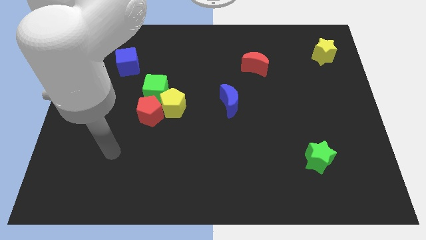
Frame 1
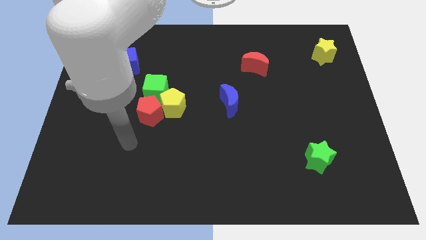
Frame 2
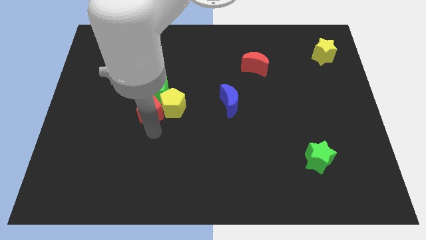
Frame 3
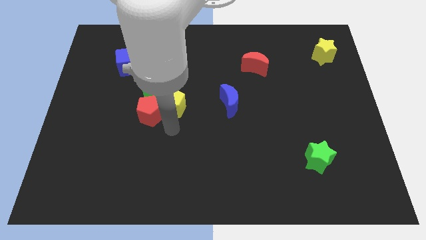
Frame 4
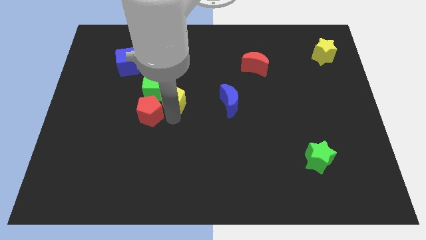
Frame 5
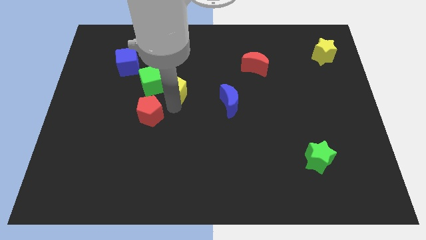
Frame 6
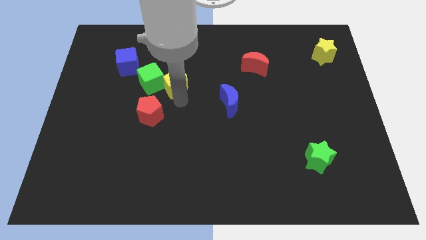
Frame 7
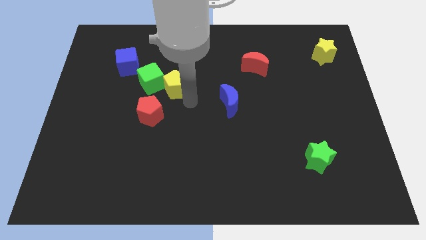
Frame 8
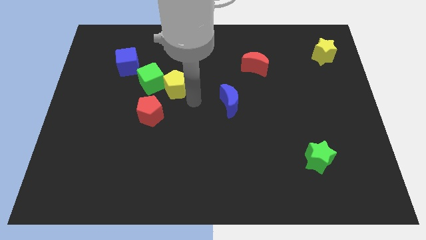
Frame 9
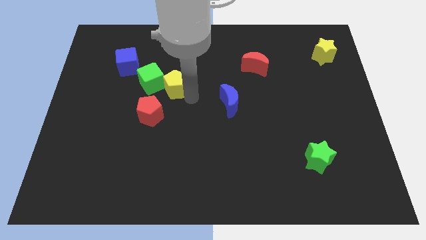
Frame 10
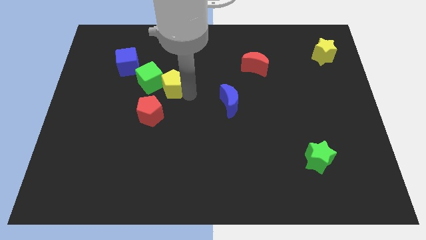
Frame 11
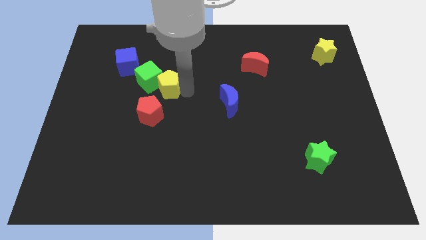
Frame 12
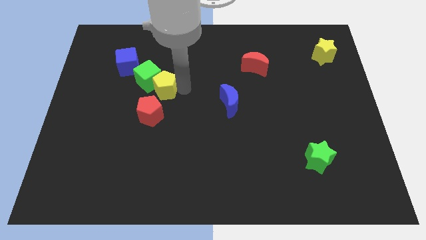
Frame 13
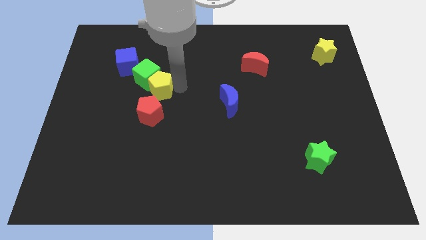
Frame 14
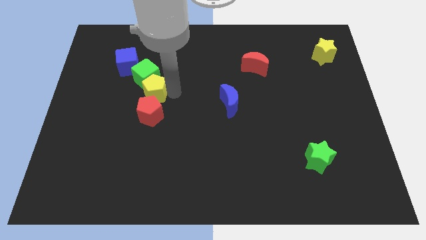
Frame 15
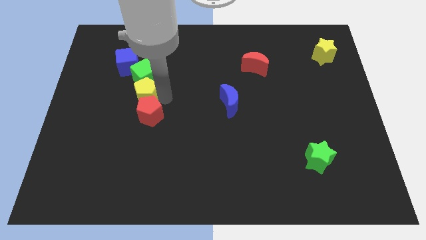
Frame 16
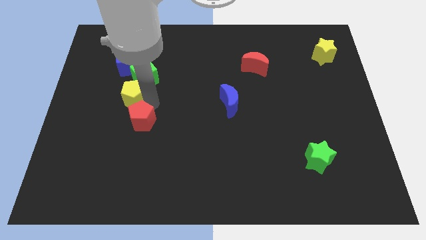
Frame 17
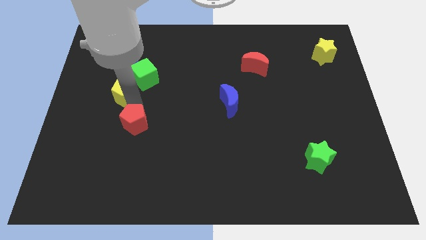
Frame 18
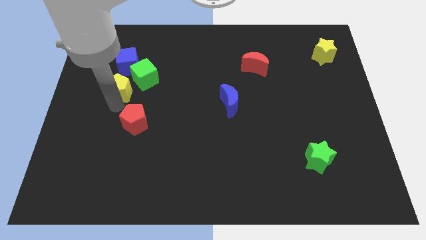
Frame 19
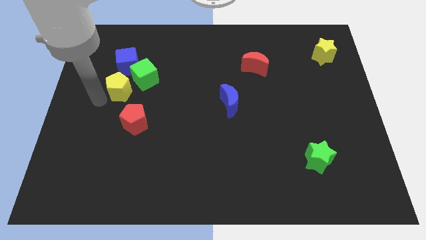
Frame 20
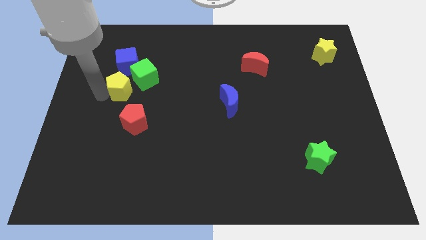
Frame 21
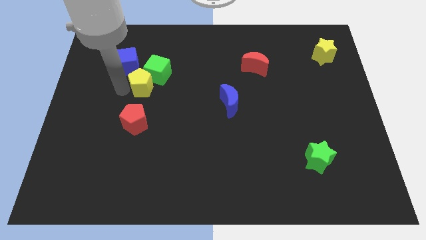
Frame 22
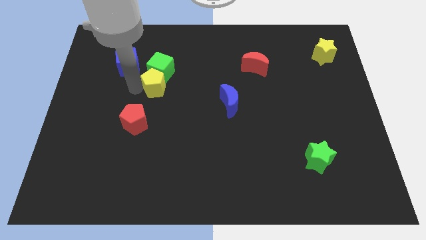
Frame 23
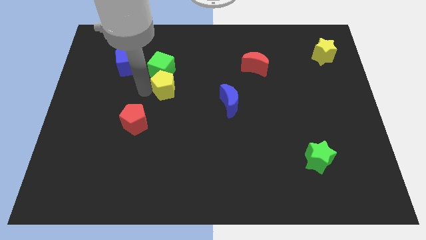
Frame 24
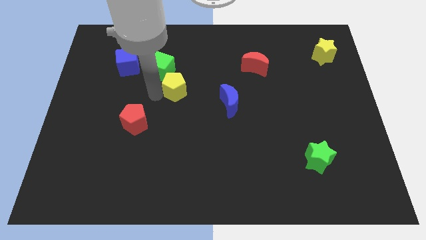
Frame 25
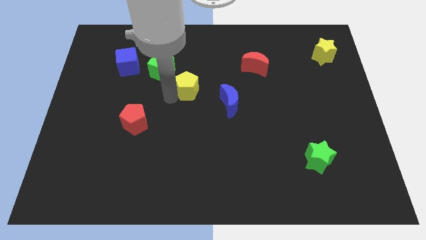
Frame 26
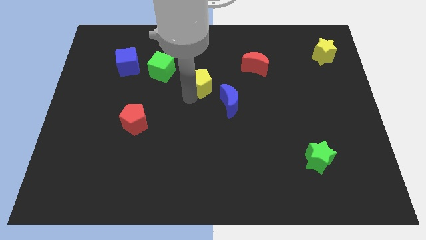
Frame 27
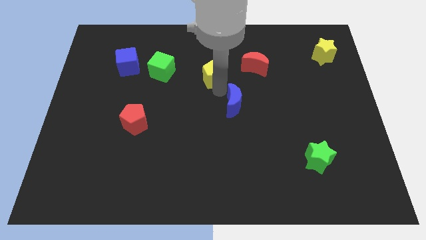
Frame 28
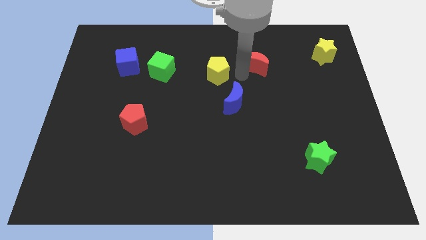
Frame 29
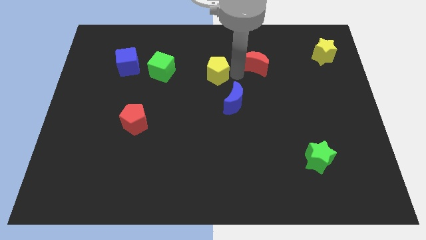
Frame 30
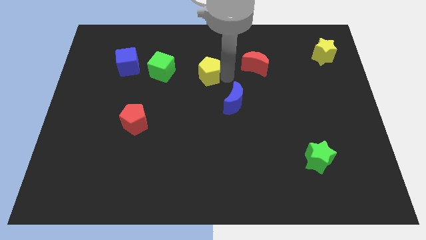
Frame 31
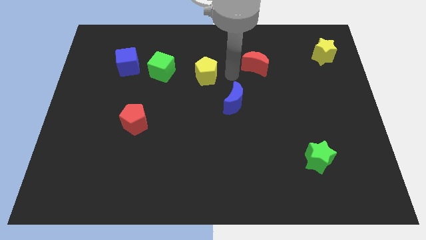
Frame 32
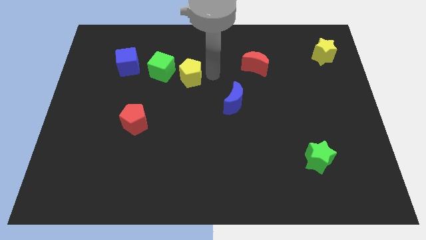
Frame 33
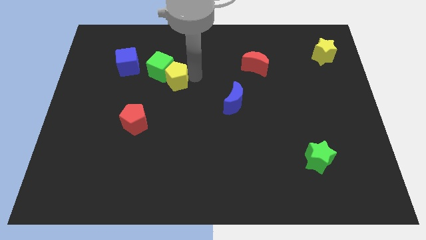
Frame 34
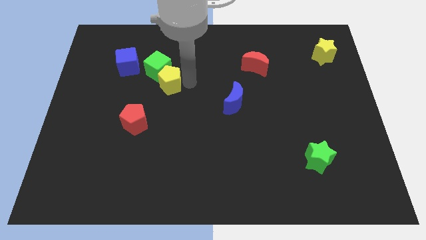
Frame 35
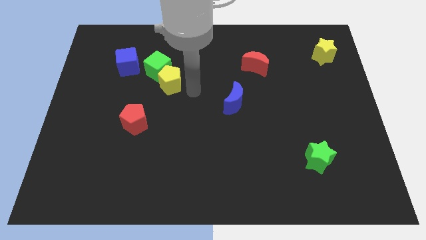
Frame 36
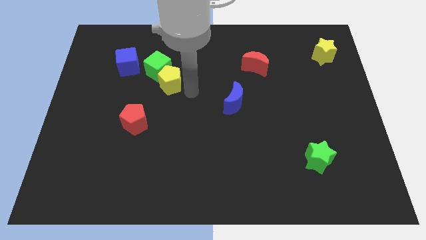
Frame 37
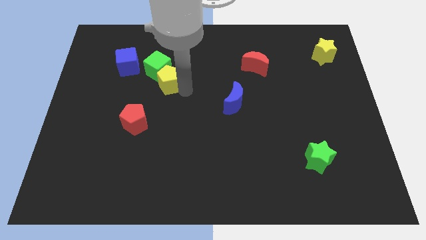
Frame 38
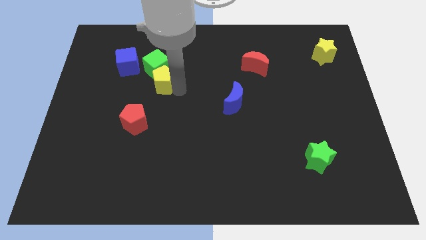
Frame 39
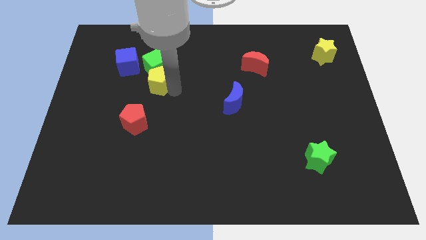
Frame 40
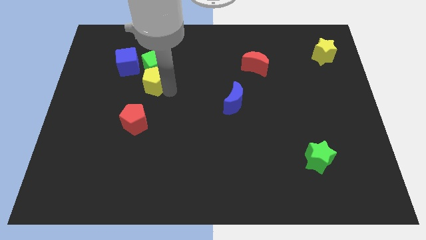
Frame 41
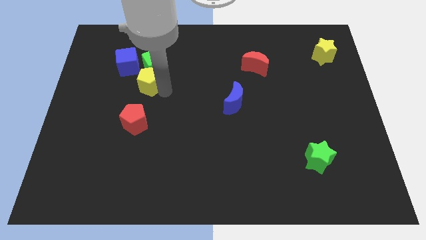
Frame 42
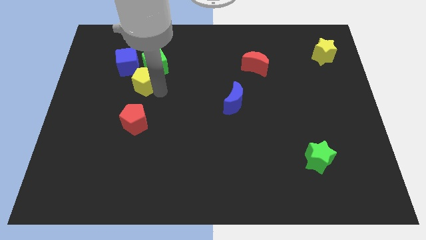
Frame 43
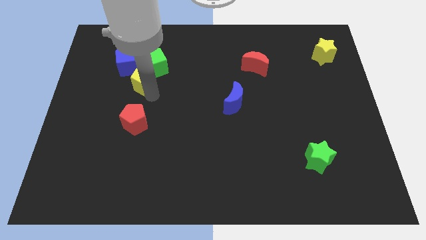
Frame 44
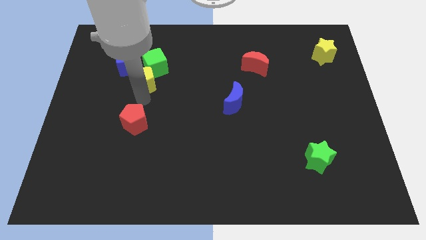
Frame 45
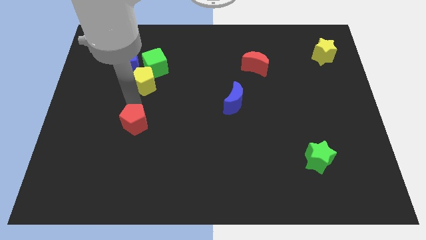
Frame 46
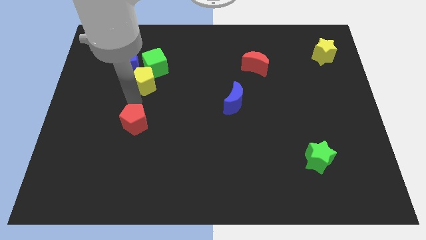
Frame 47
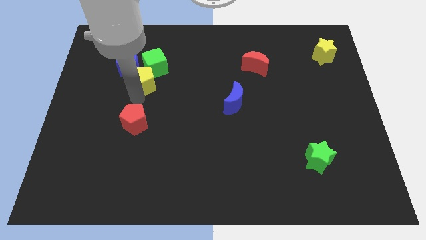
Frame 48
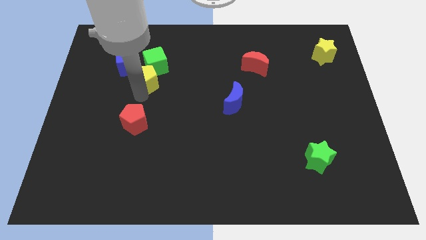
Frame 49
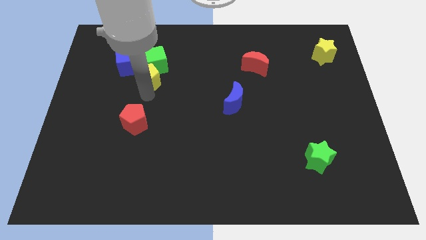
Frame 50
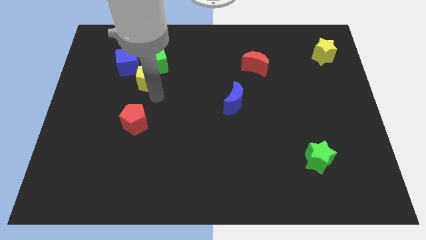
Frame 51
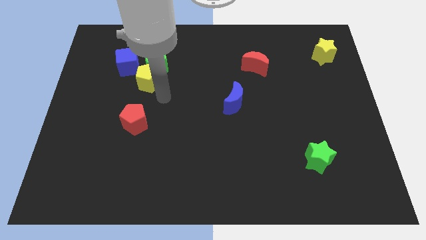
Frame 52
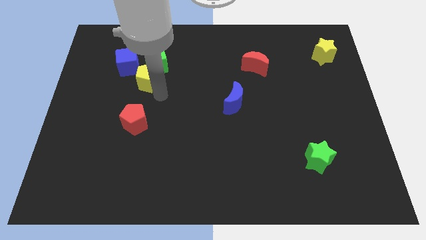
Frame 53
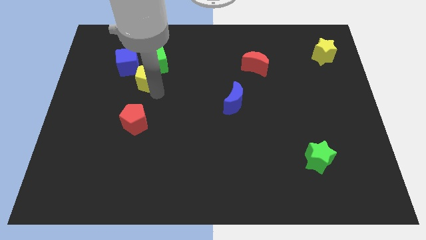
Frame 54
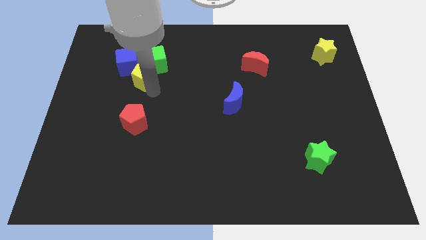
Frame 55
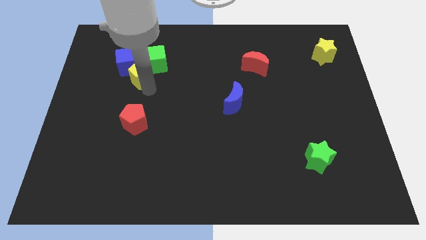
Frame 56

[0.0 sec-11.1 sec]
slide the yellow pentagon next to the blue cube

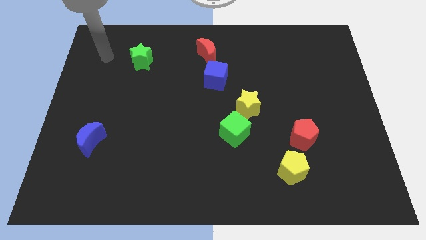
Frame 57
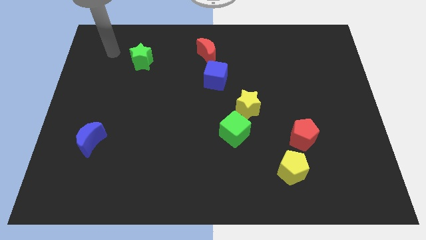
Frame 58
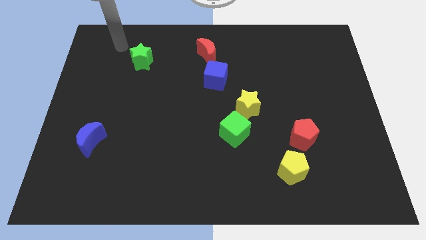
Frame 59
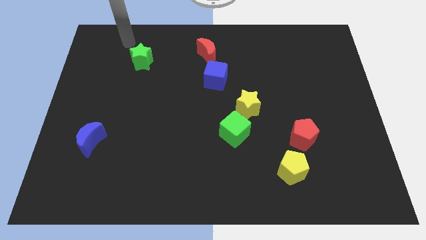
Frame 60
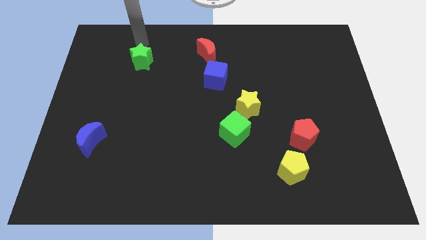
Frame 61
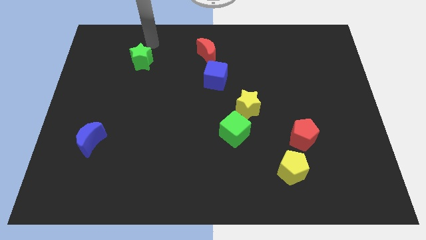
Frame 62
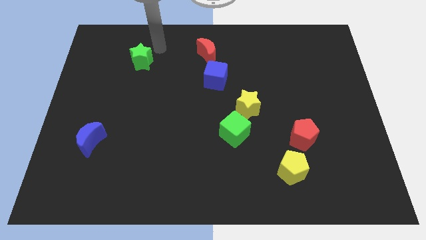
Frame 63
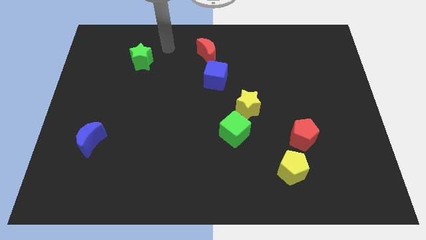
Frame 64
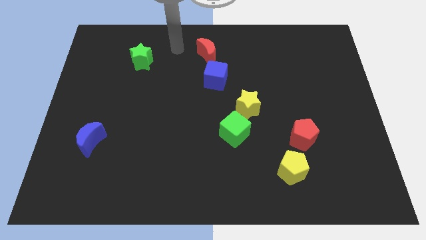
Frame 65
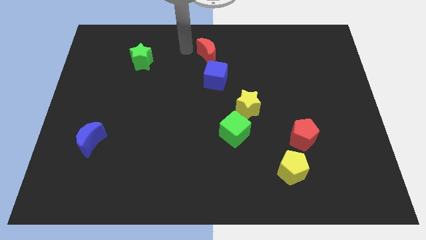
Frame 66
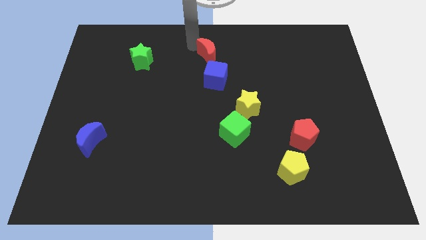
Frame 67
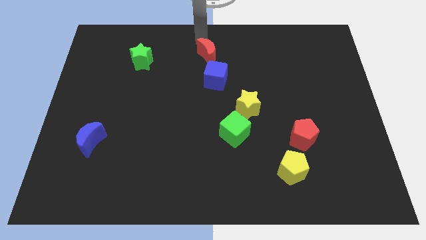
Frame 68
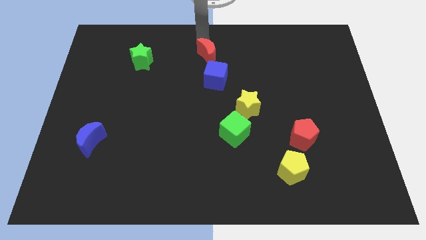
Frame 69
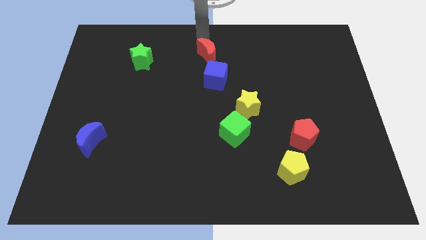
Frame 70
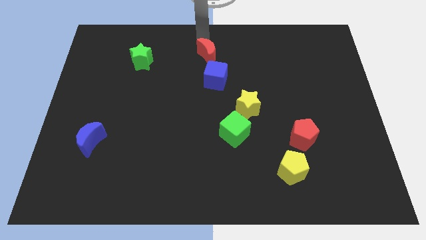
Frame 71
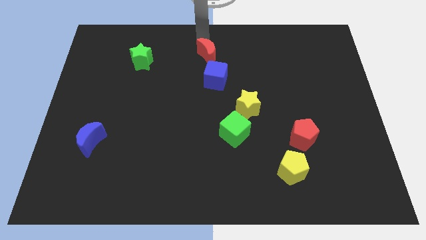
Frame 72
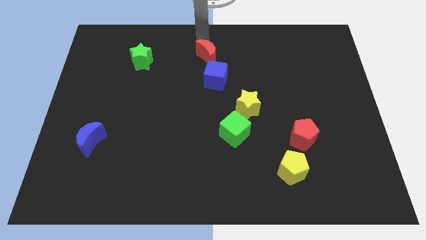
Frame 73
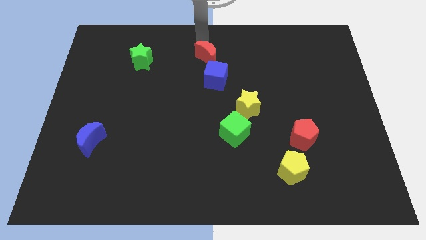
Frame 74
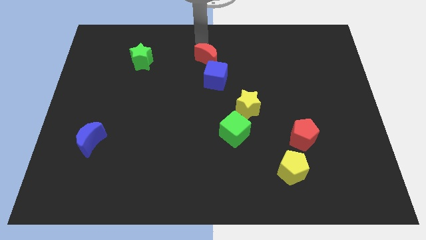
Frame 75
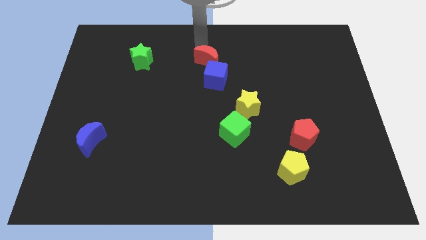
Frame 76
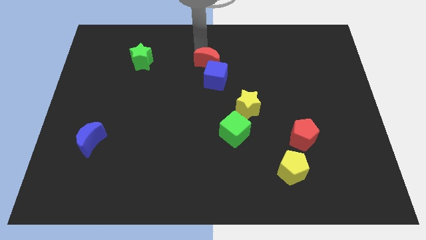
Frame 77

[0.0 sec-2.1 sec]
put the red moon towards the blue cube
